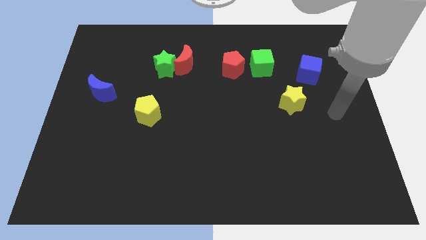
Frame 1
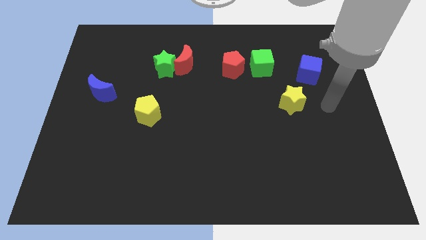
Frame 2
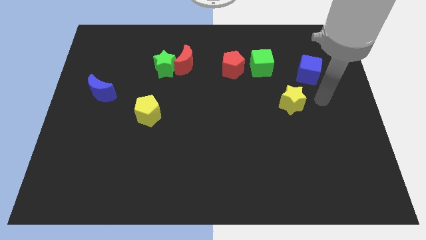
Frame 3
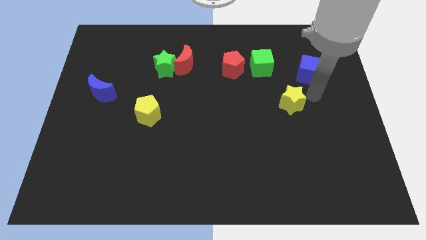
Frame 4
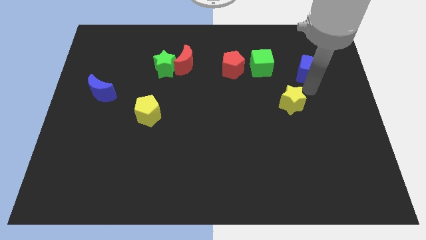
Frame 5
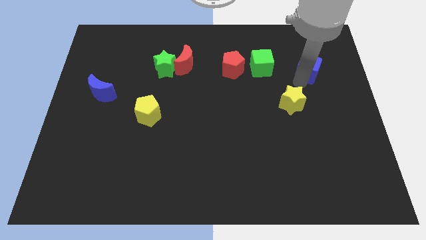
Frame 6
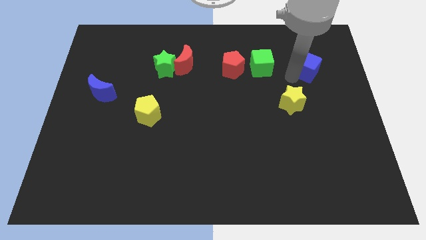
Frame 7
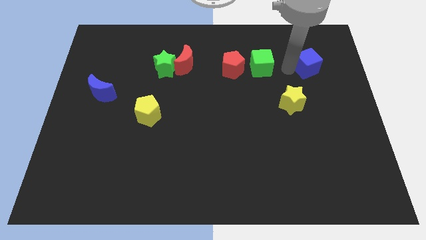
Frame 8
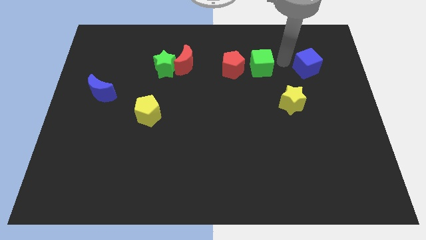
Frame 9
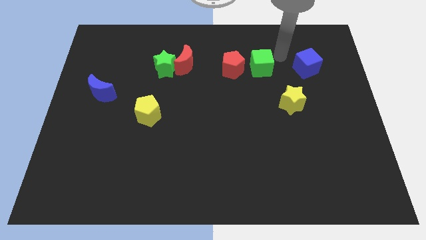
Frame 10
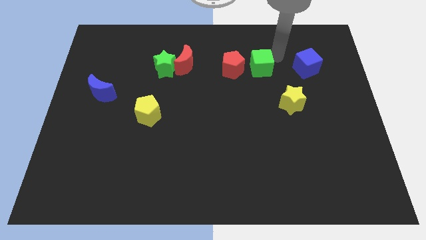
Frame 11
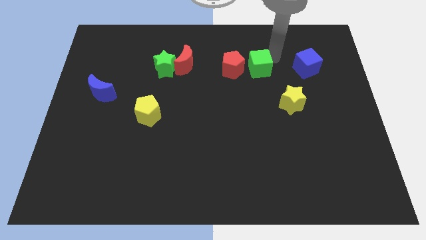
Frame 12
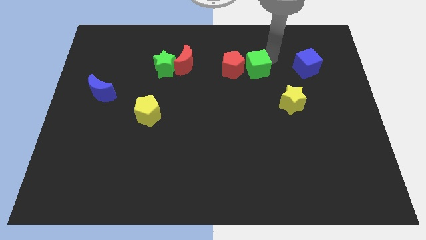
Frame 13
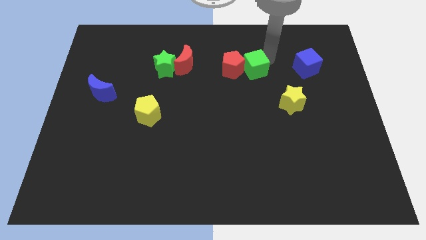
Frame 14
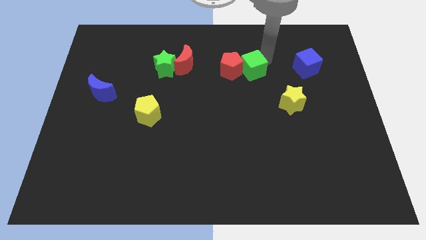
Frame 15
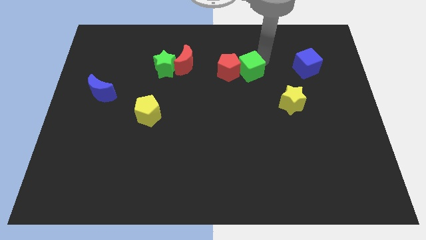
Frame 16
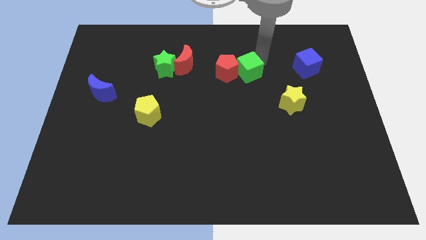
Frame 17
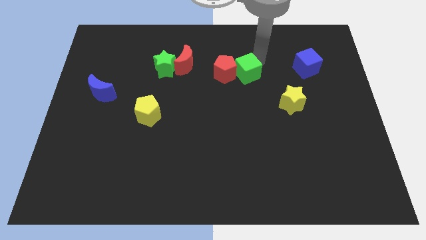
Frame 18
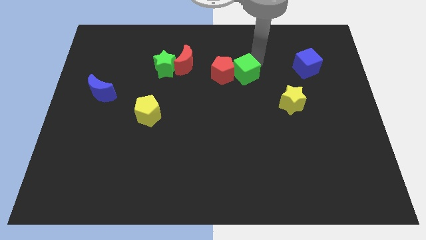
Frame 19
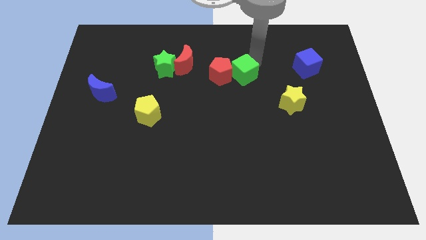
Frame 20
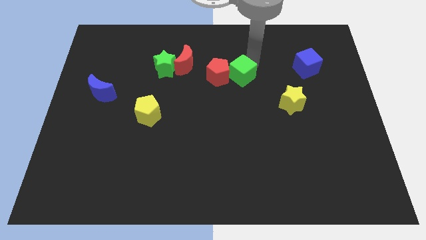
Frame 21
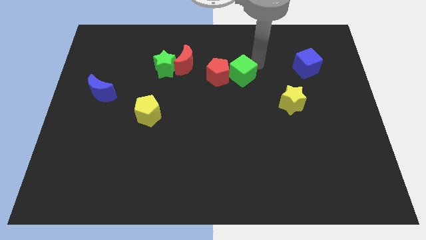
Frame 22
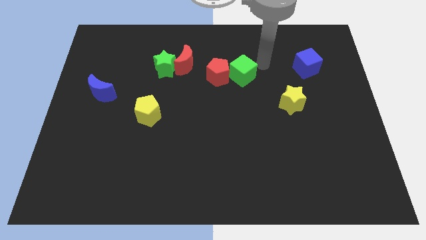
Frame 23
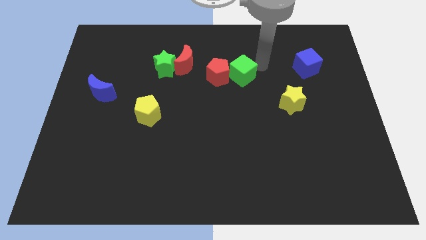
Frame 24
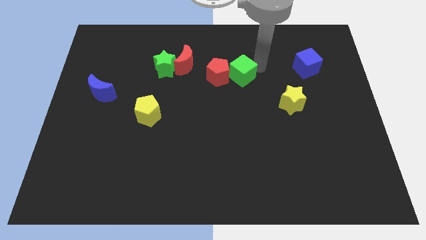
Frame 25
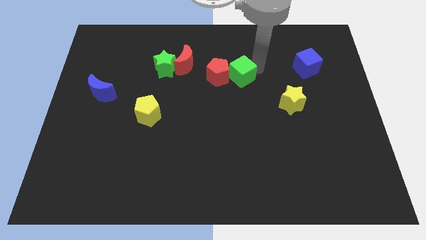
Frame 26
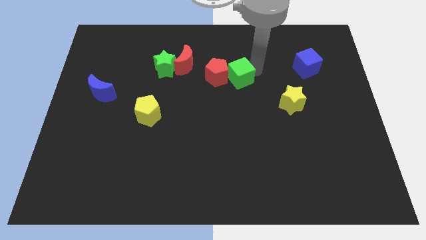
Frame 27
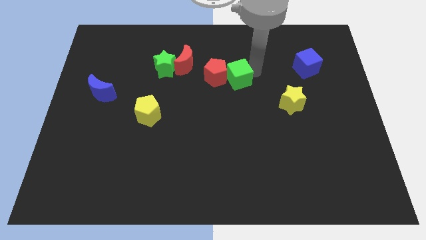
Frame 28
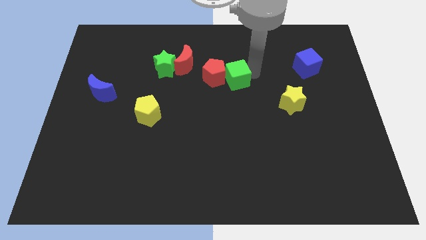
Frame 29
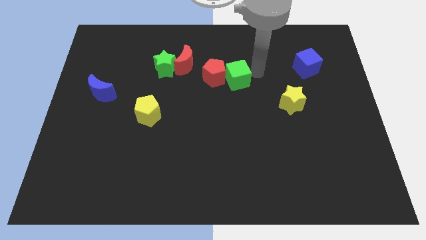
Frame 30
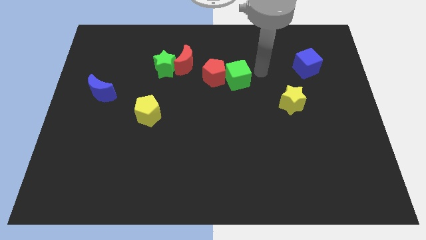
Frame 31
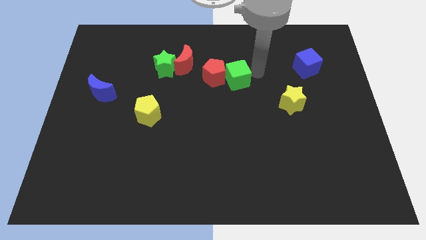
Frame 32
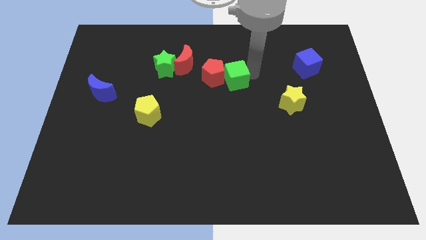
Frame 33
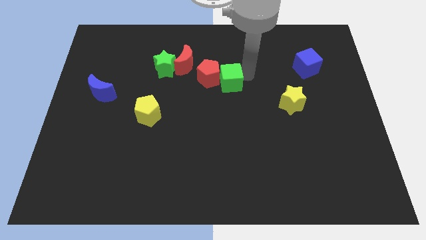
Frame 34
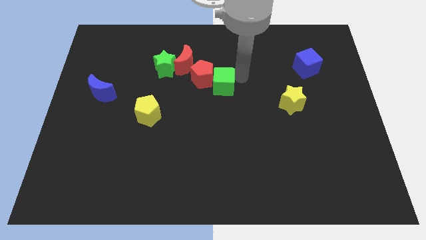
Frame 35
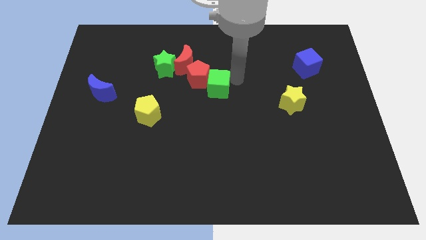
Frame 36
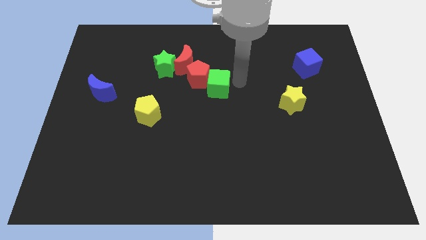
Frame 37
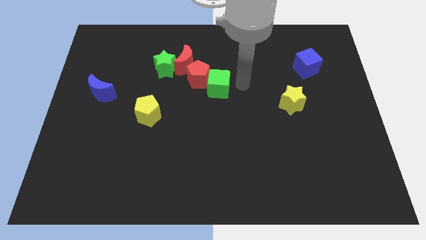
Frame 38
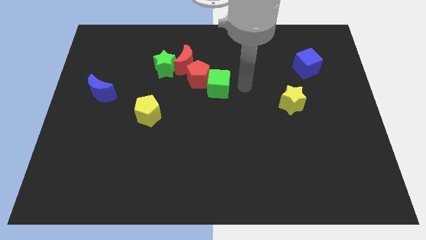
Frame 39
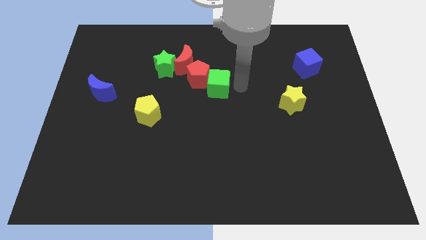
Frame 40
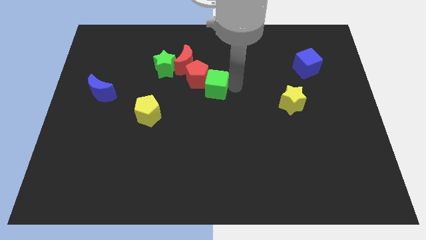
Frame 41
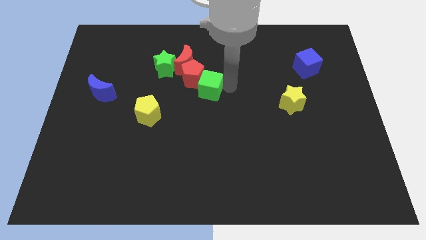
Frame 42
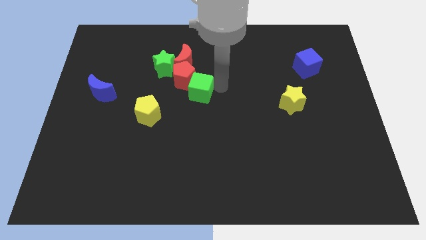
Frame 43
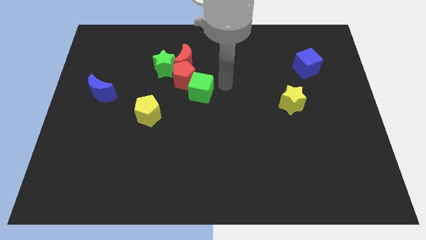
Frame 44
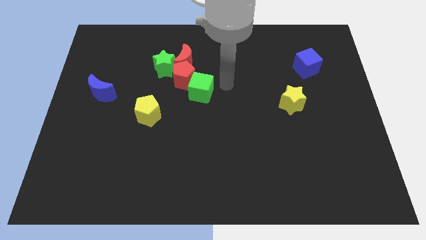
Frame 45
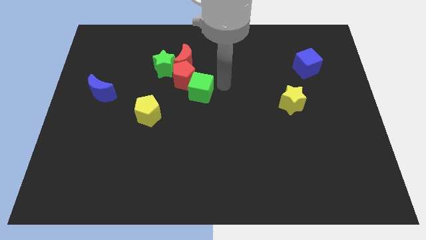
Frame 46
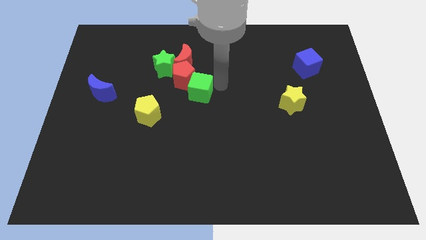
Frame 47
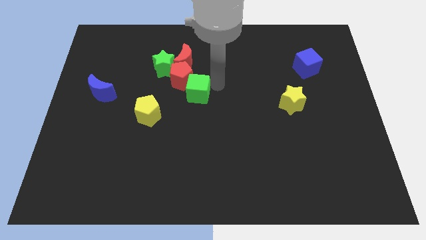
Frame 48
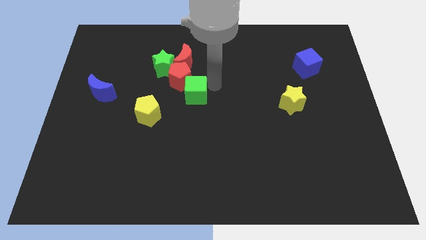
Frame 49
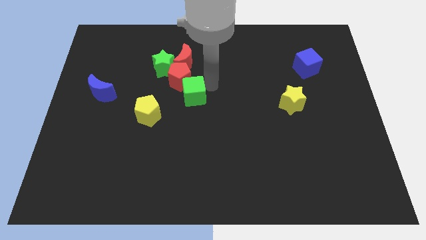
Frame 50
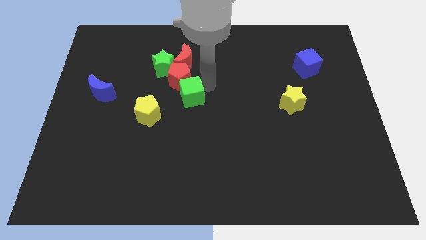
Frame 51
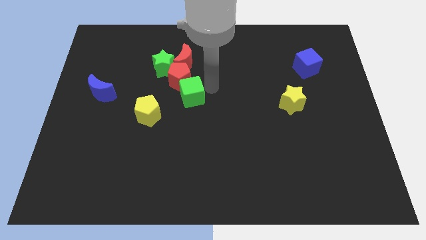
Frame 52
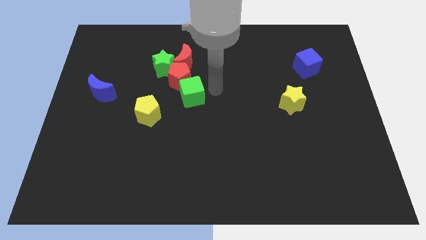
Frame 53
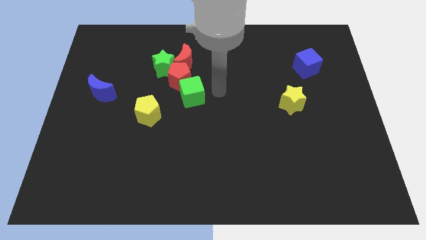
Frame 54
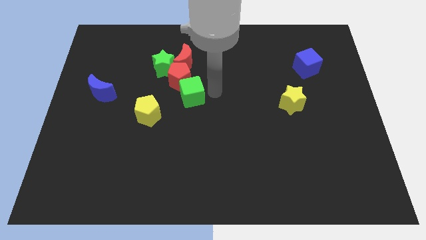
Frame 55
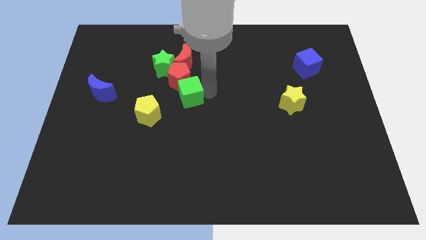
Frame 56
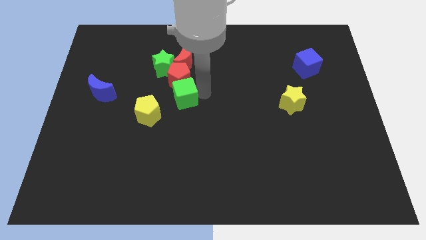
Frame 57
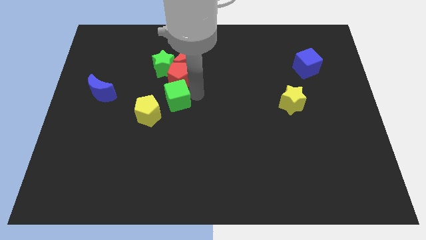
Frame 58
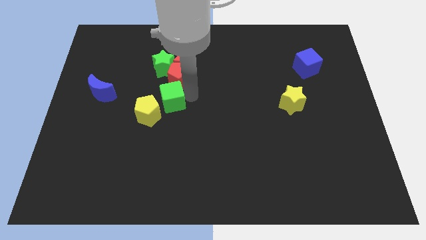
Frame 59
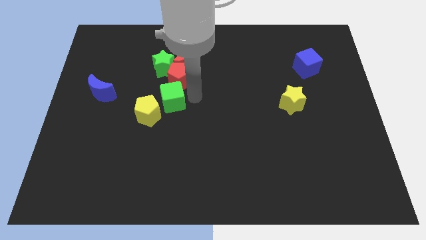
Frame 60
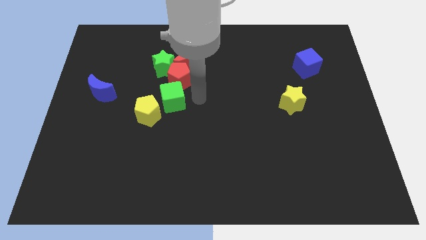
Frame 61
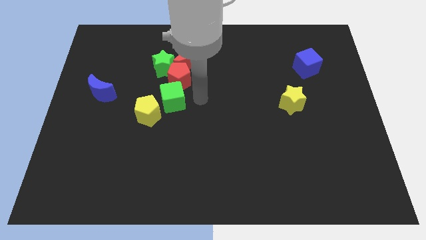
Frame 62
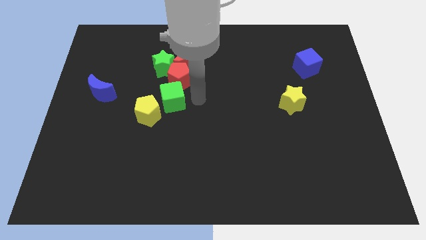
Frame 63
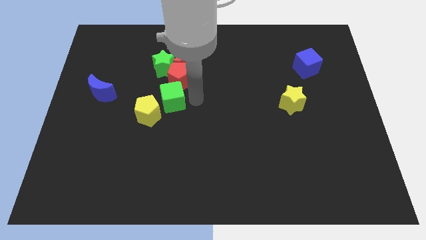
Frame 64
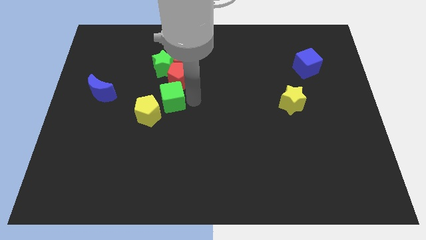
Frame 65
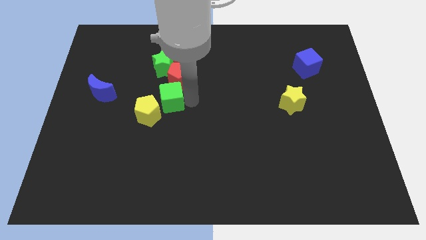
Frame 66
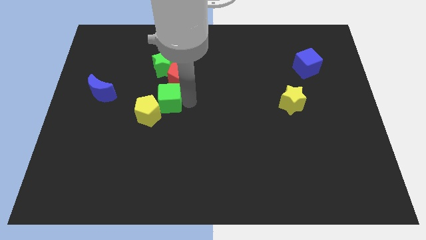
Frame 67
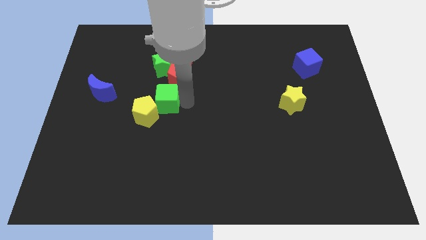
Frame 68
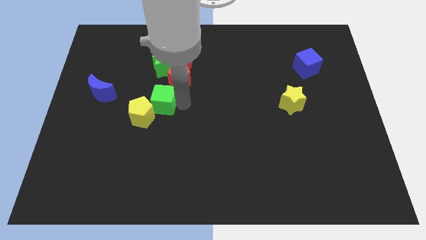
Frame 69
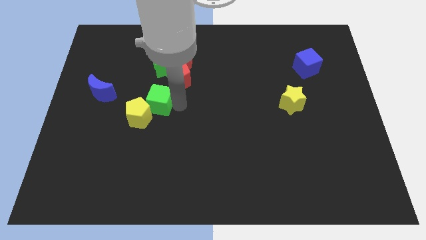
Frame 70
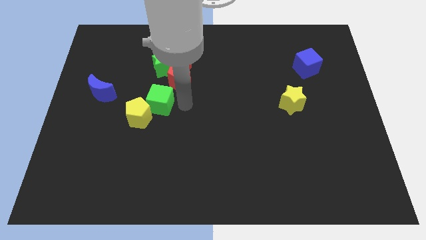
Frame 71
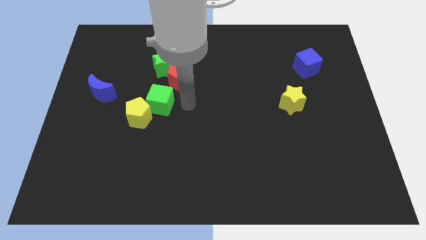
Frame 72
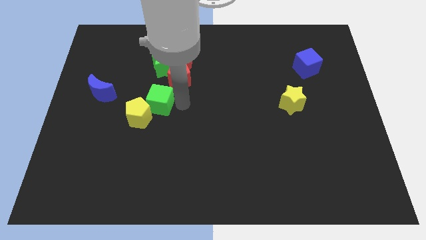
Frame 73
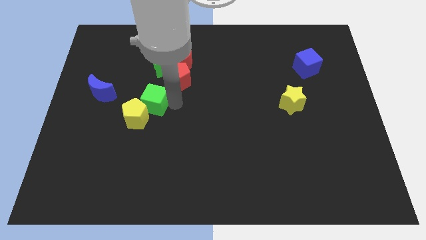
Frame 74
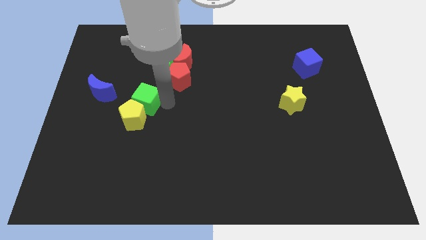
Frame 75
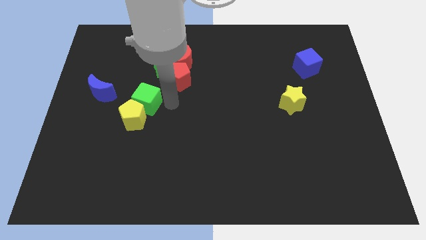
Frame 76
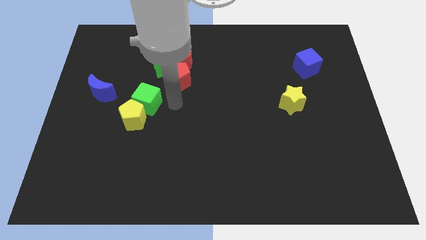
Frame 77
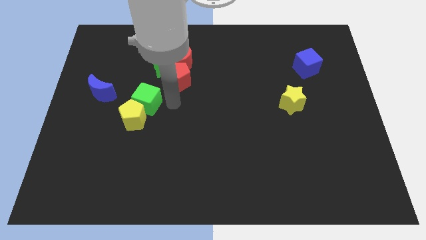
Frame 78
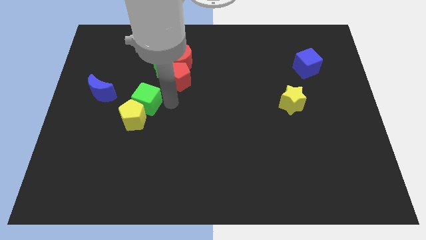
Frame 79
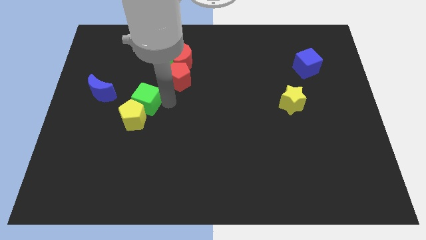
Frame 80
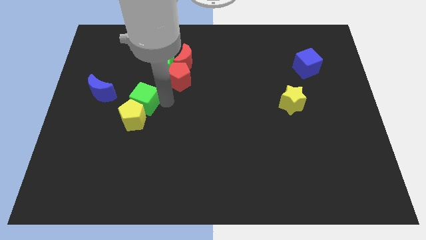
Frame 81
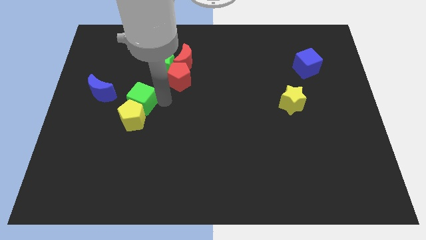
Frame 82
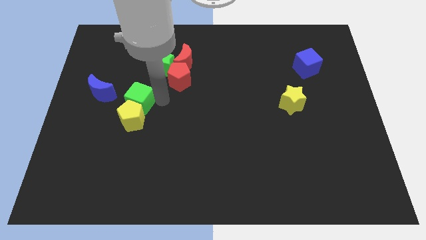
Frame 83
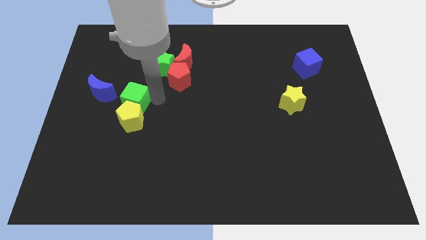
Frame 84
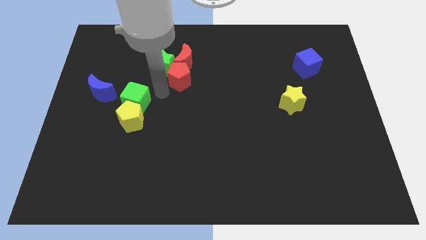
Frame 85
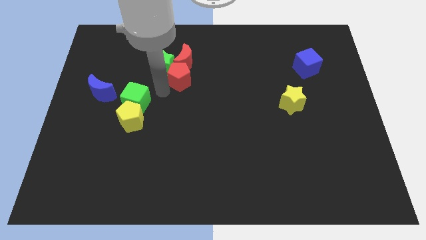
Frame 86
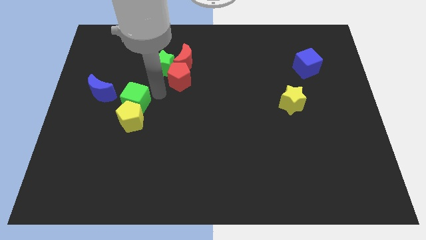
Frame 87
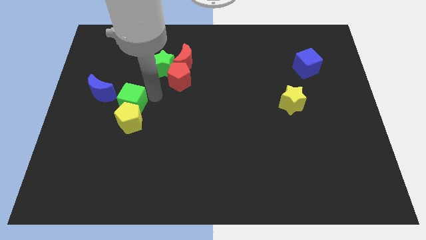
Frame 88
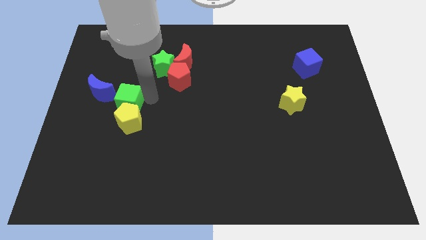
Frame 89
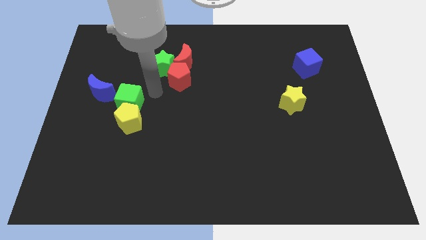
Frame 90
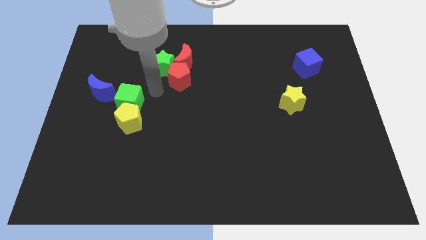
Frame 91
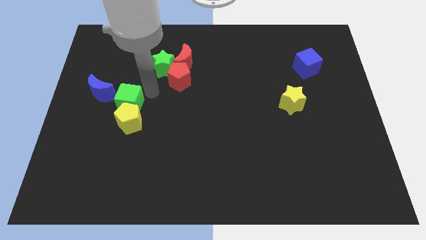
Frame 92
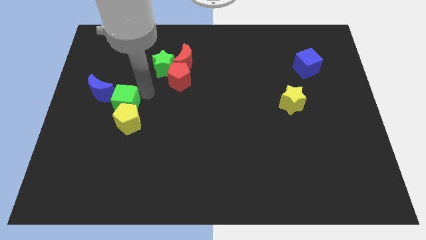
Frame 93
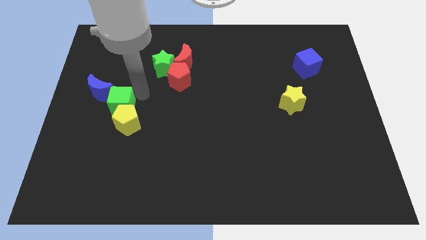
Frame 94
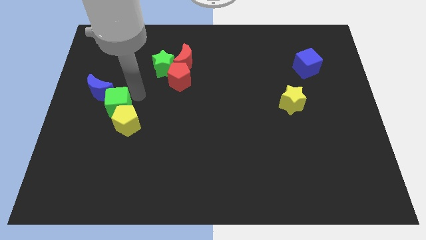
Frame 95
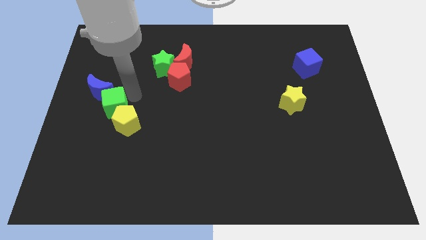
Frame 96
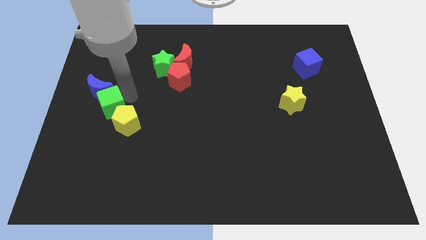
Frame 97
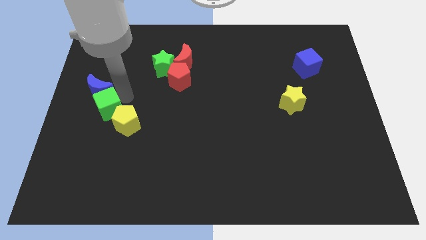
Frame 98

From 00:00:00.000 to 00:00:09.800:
slide the green cube just left of the yellow pentagon
